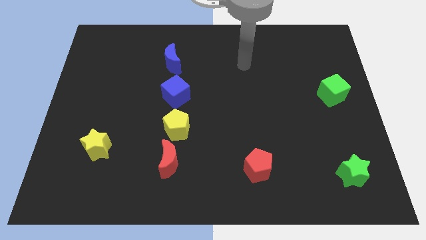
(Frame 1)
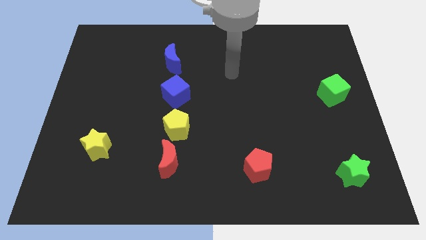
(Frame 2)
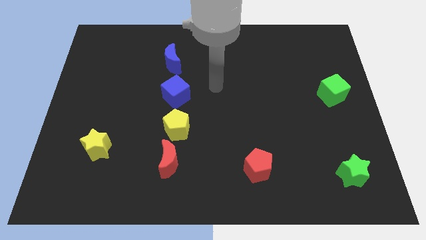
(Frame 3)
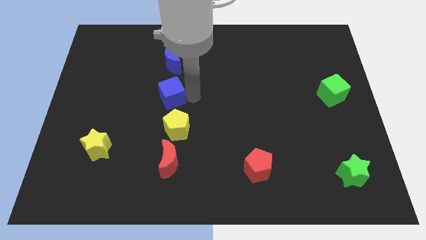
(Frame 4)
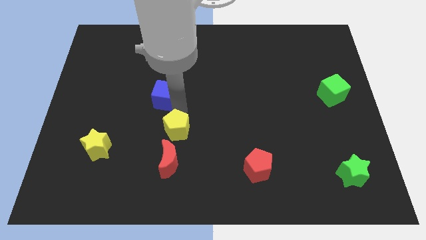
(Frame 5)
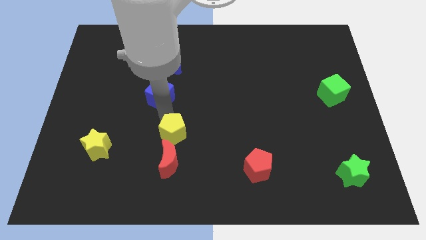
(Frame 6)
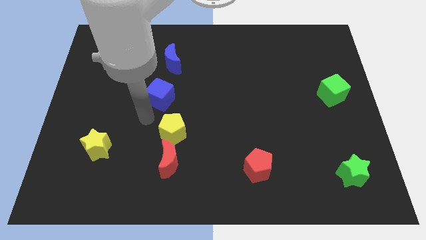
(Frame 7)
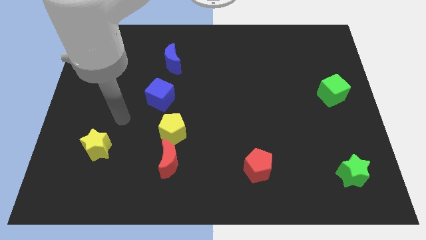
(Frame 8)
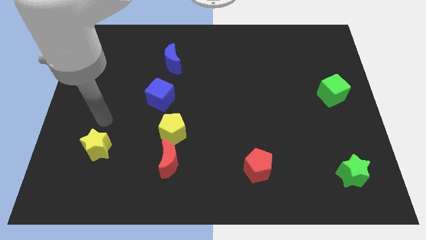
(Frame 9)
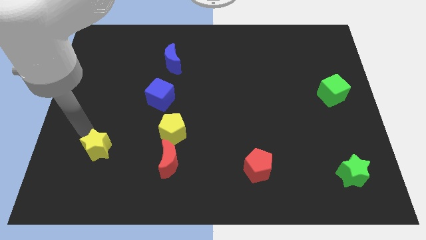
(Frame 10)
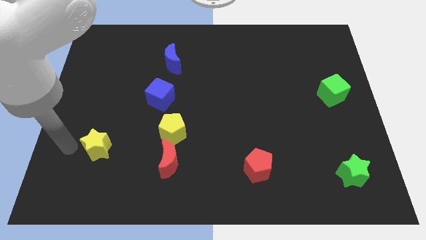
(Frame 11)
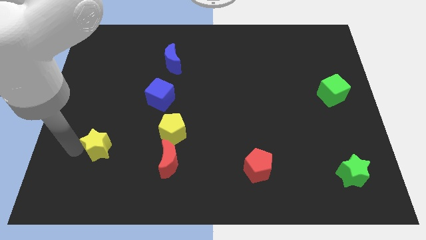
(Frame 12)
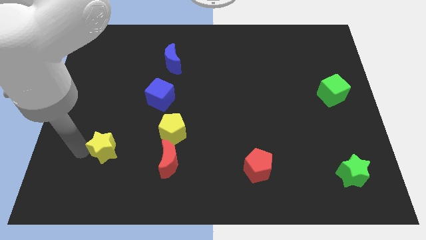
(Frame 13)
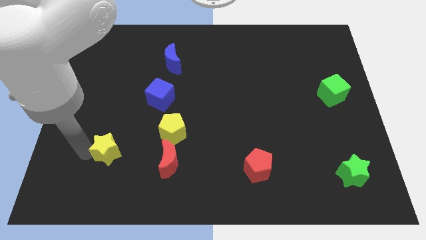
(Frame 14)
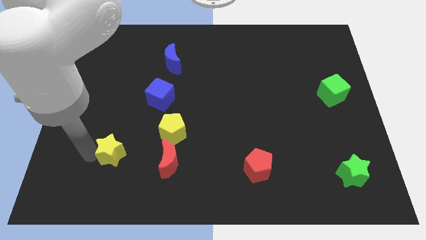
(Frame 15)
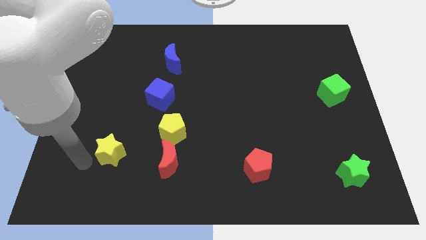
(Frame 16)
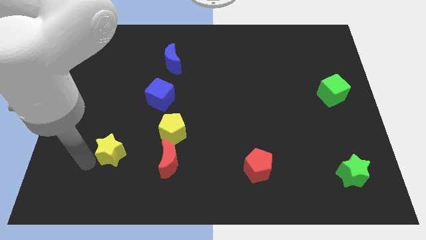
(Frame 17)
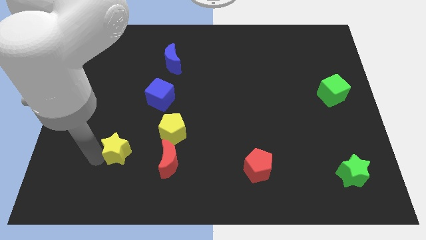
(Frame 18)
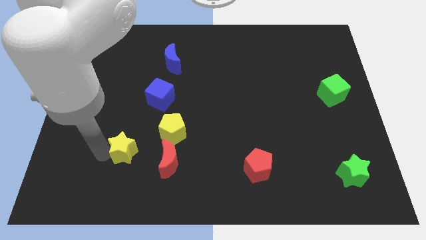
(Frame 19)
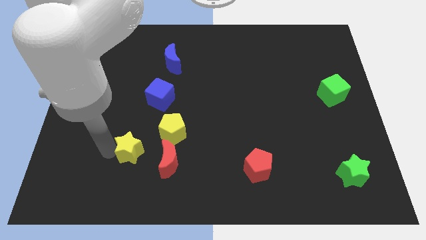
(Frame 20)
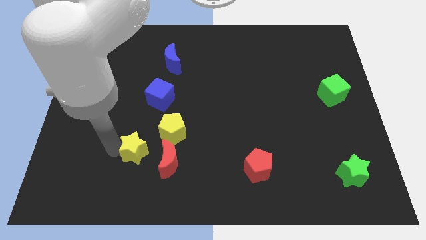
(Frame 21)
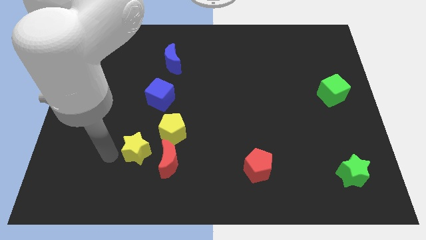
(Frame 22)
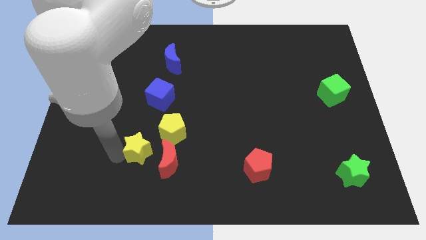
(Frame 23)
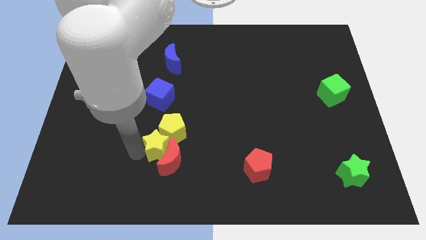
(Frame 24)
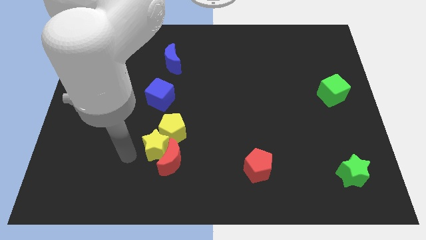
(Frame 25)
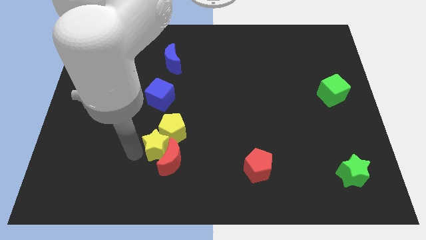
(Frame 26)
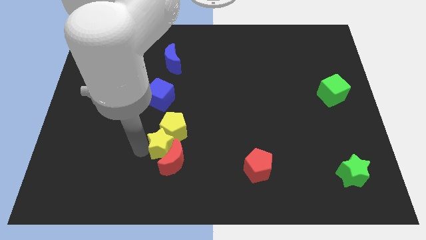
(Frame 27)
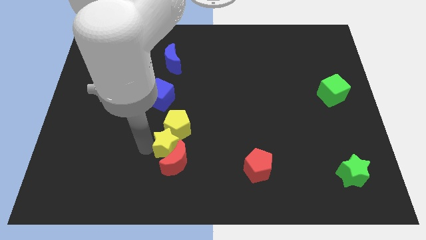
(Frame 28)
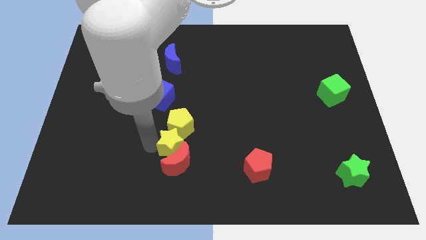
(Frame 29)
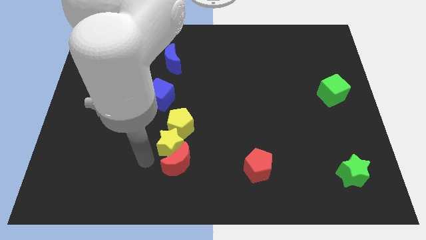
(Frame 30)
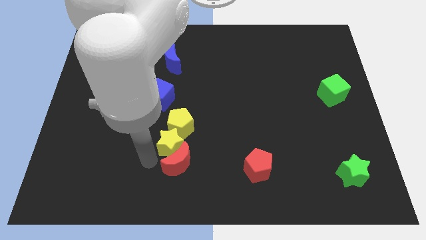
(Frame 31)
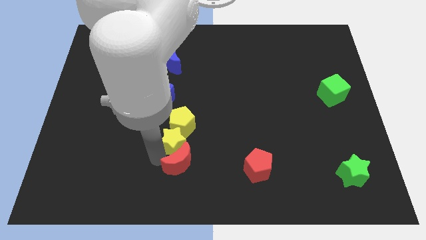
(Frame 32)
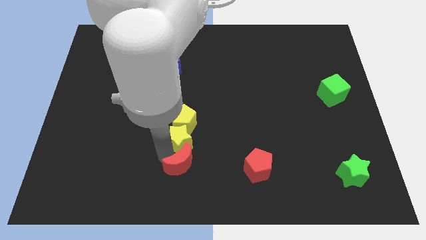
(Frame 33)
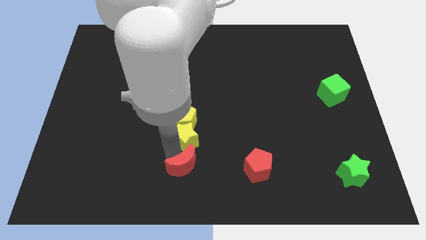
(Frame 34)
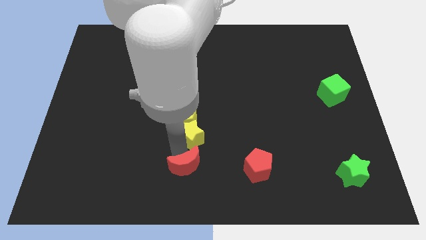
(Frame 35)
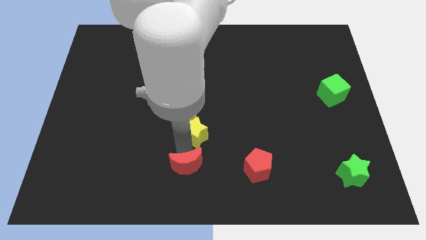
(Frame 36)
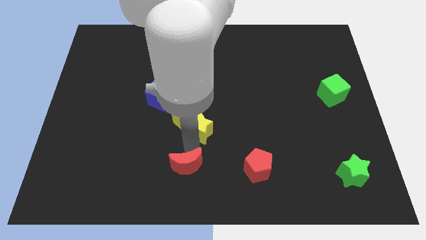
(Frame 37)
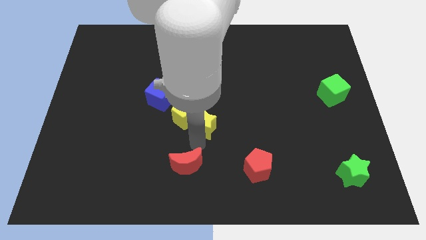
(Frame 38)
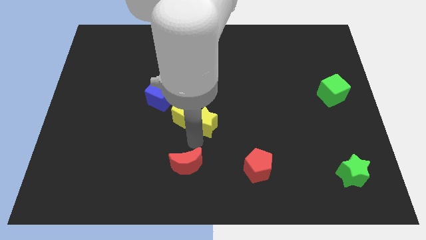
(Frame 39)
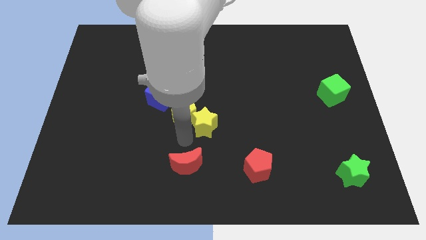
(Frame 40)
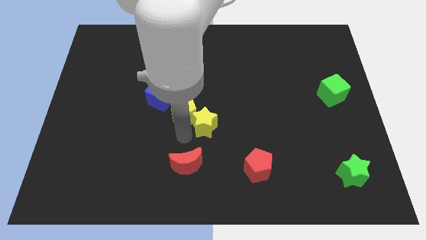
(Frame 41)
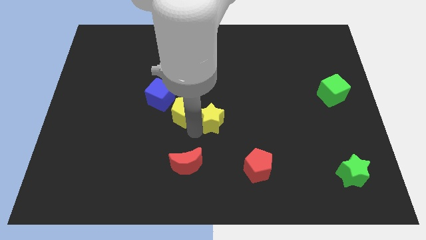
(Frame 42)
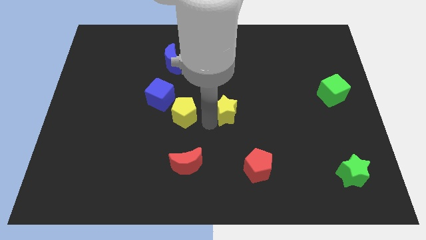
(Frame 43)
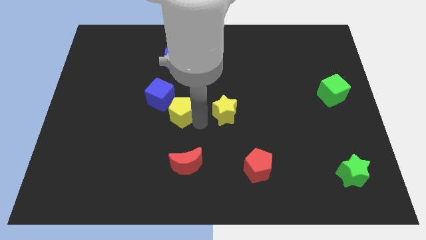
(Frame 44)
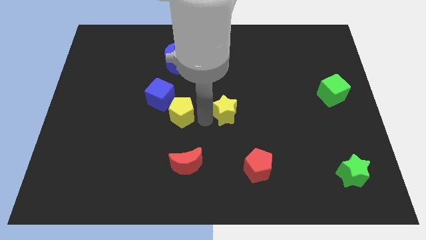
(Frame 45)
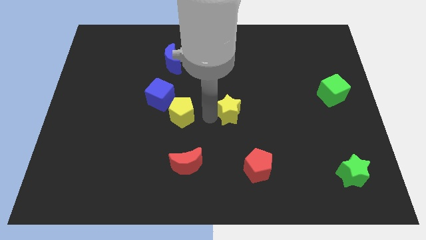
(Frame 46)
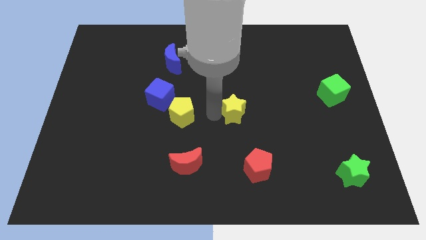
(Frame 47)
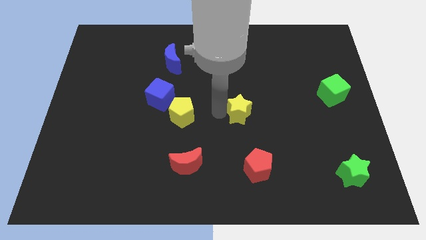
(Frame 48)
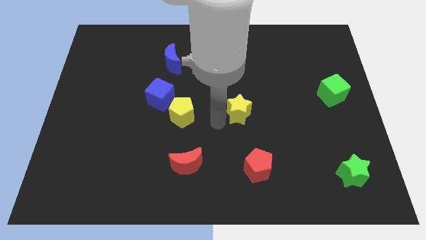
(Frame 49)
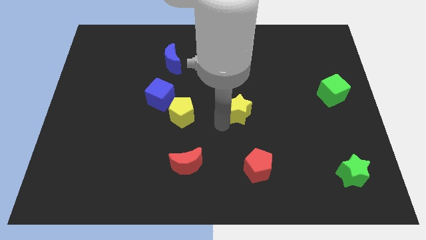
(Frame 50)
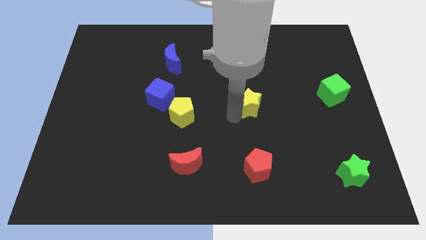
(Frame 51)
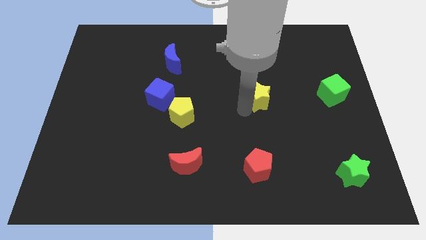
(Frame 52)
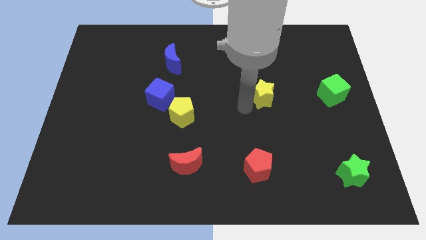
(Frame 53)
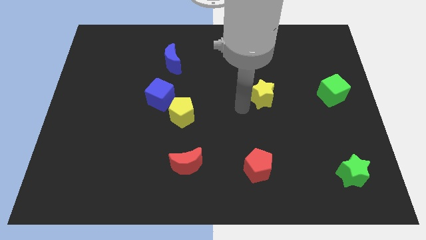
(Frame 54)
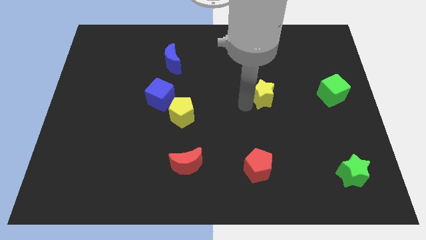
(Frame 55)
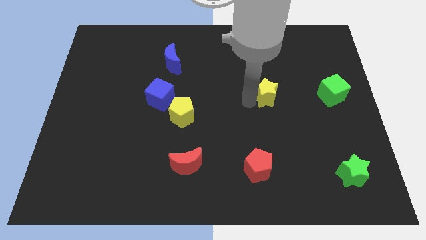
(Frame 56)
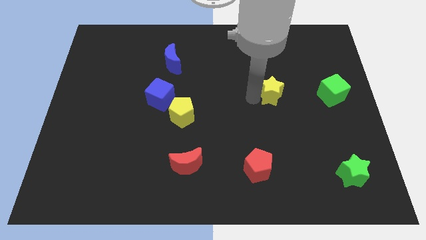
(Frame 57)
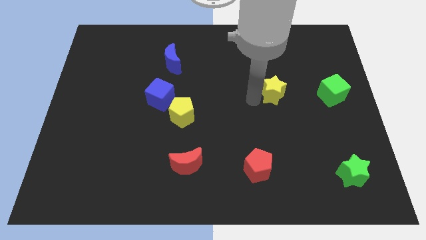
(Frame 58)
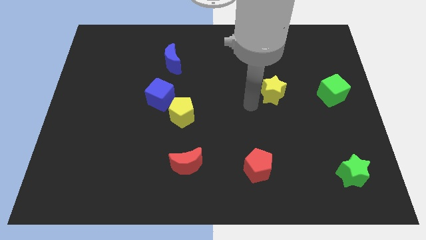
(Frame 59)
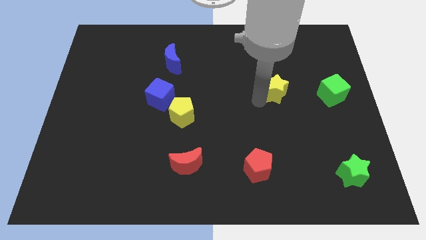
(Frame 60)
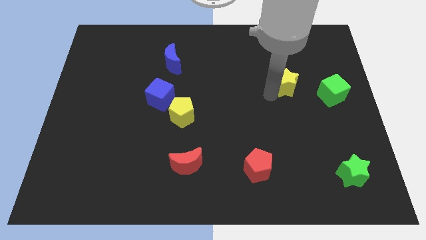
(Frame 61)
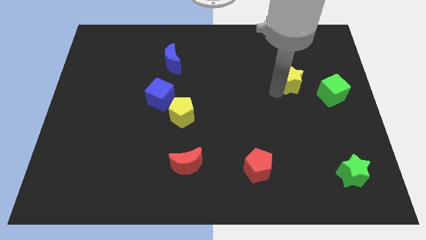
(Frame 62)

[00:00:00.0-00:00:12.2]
slide the yellow star to the top left side of the green cube
